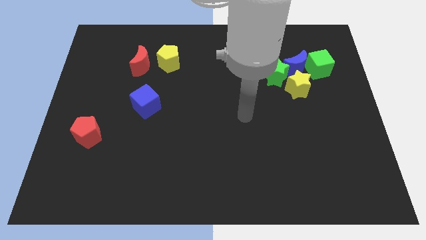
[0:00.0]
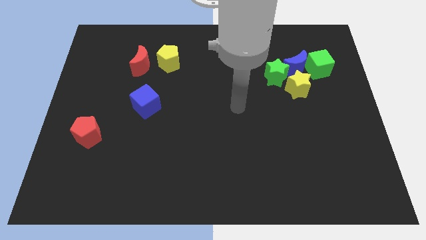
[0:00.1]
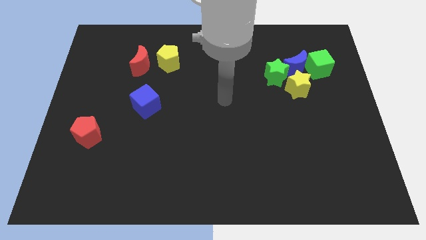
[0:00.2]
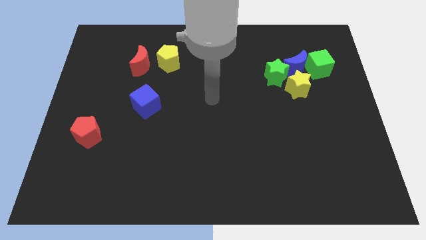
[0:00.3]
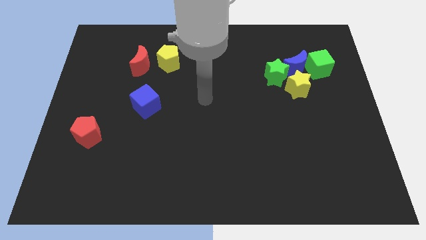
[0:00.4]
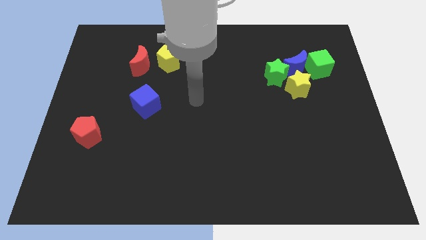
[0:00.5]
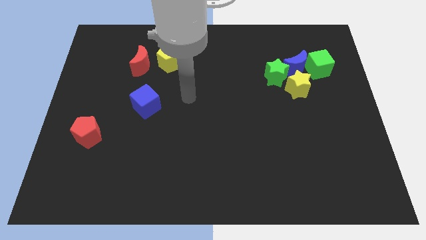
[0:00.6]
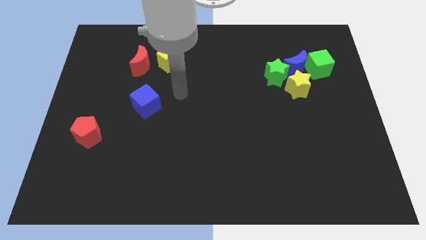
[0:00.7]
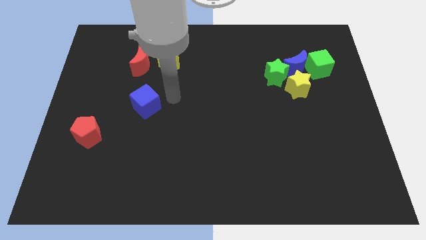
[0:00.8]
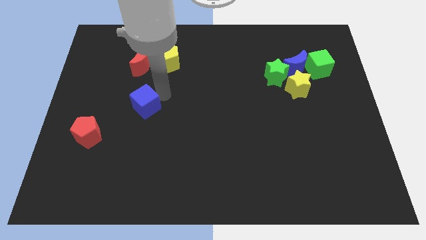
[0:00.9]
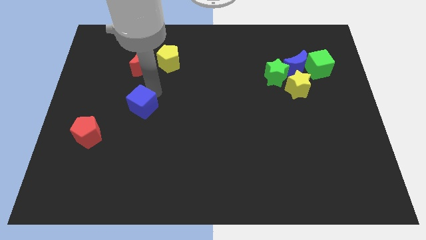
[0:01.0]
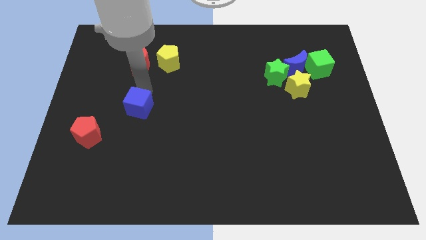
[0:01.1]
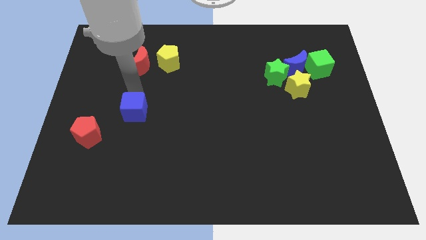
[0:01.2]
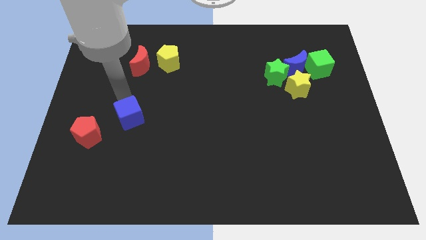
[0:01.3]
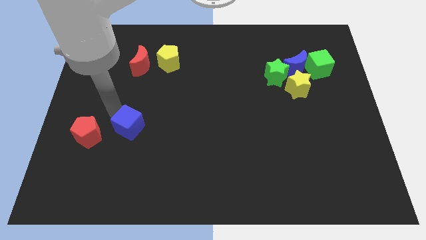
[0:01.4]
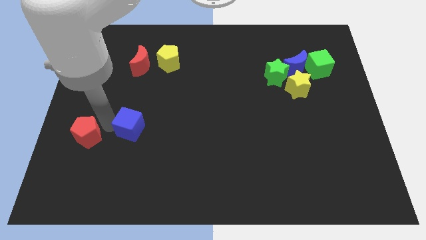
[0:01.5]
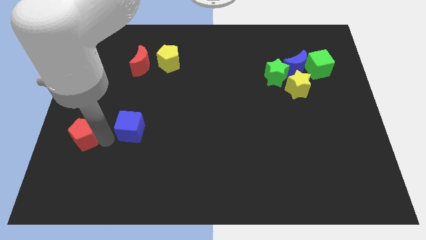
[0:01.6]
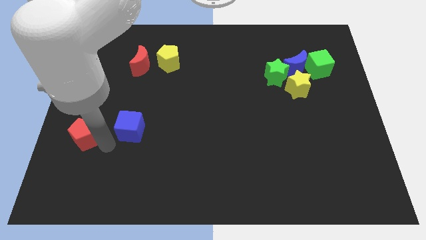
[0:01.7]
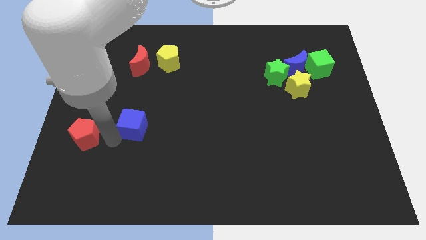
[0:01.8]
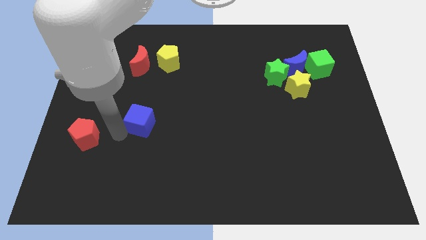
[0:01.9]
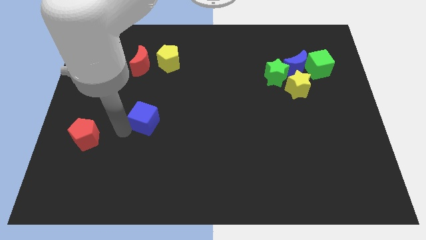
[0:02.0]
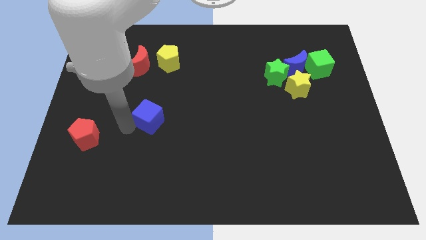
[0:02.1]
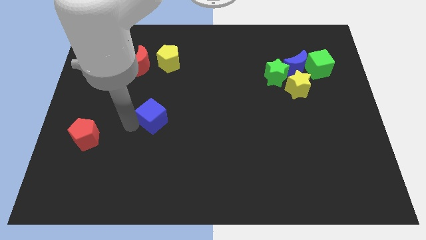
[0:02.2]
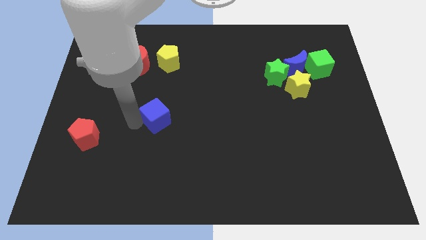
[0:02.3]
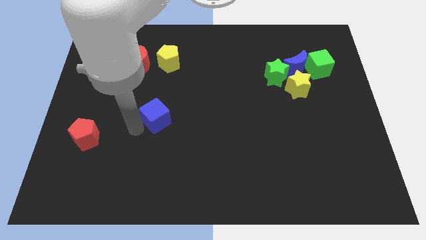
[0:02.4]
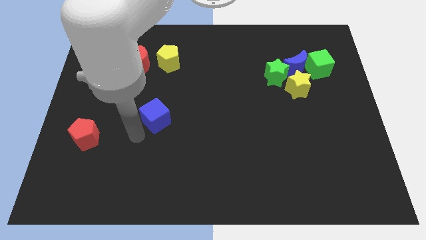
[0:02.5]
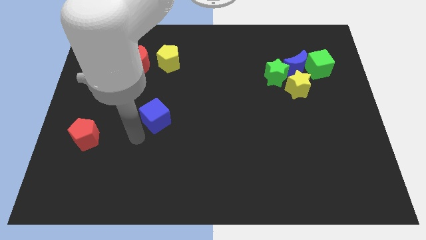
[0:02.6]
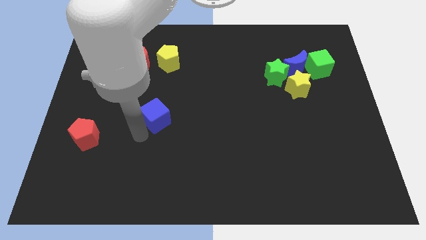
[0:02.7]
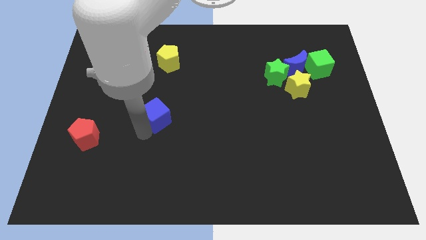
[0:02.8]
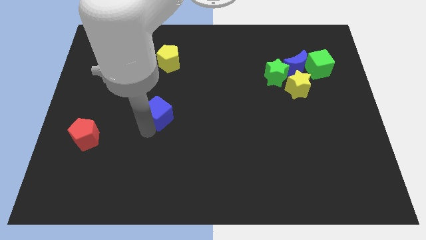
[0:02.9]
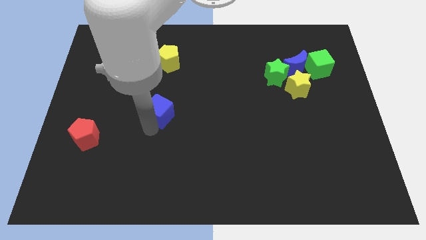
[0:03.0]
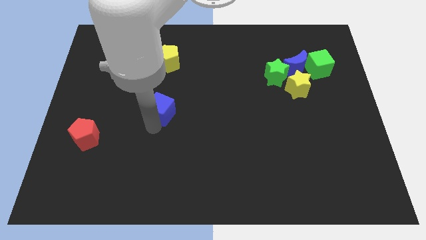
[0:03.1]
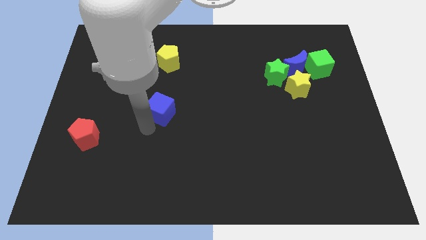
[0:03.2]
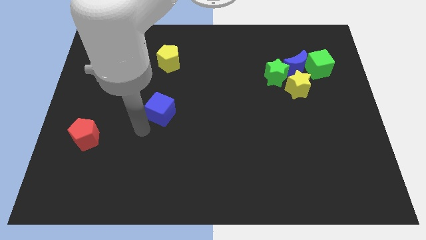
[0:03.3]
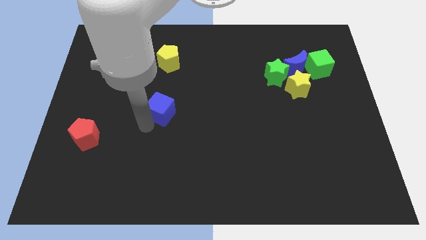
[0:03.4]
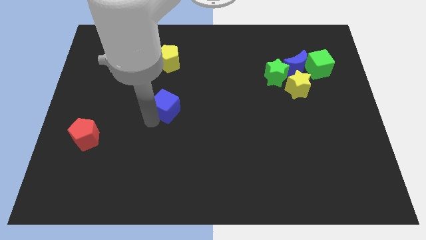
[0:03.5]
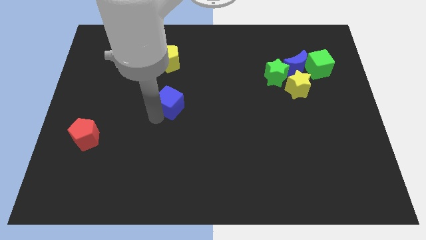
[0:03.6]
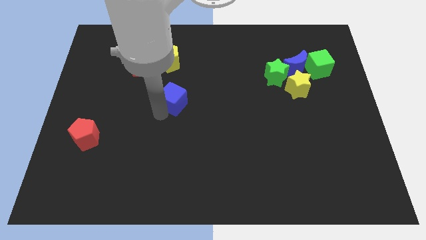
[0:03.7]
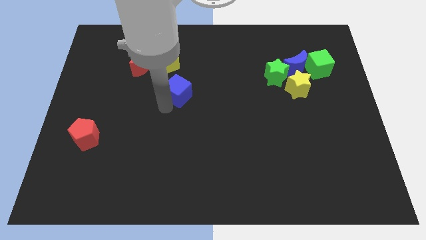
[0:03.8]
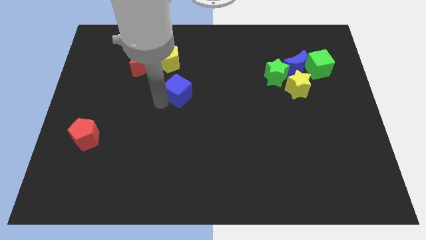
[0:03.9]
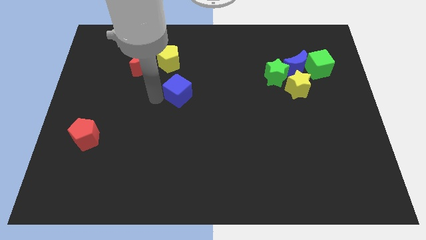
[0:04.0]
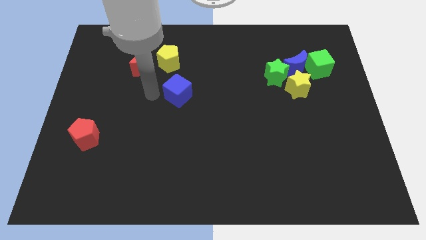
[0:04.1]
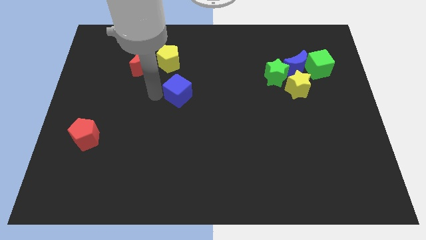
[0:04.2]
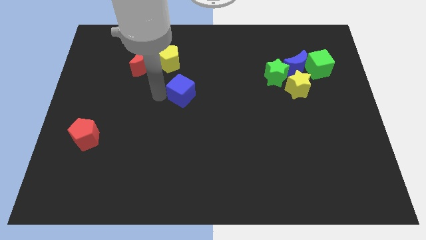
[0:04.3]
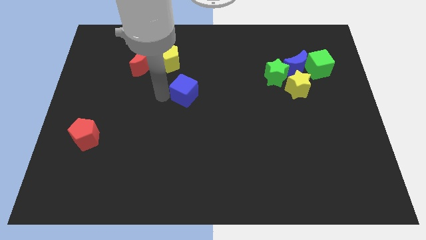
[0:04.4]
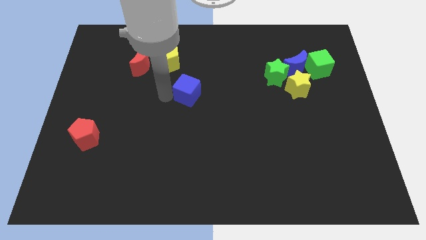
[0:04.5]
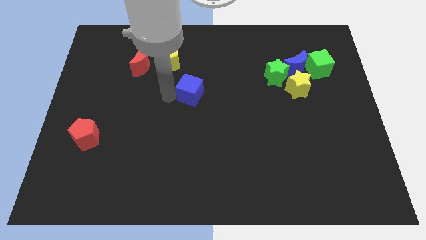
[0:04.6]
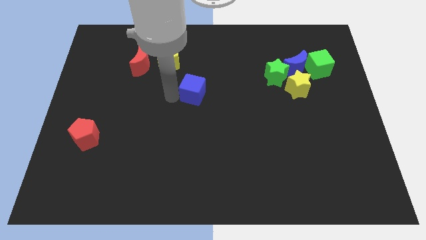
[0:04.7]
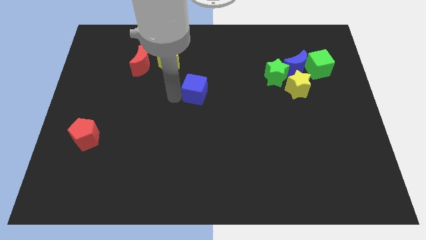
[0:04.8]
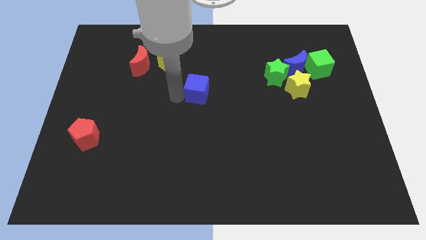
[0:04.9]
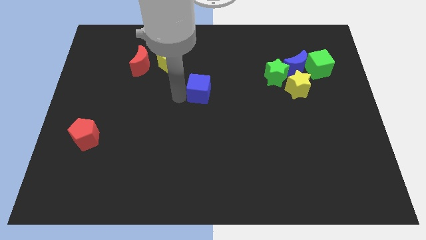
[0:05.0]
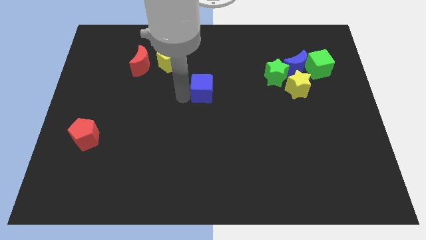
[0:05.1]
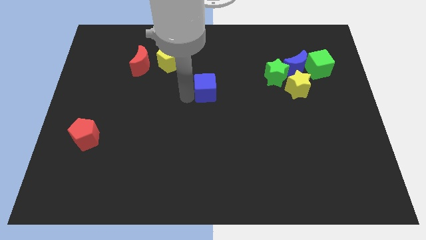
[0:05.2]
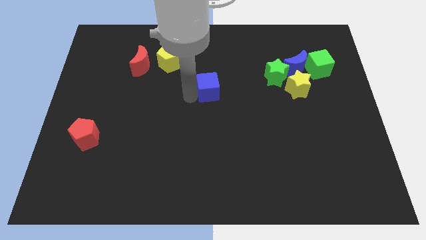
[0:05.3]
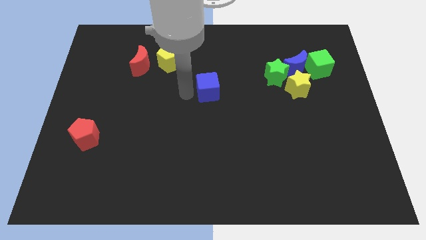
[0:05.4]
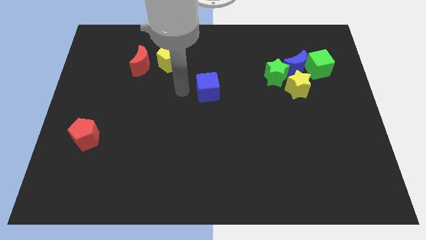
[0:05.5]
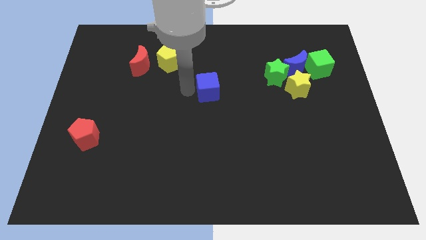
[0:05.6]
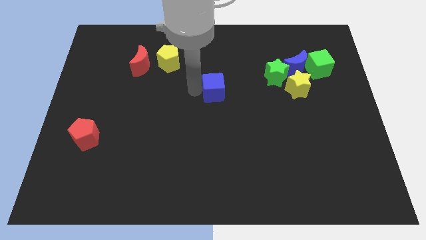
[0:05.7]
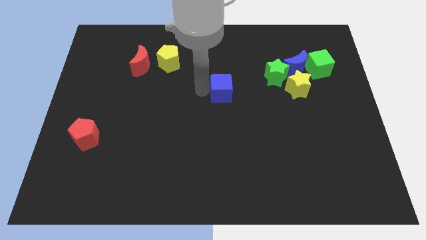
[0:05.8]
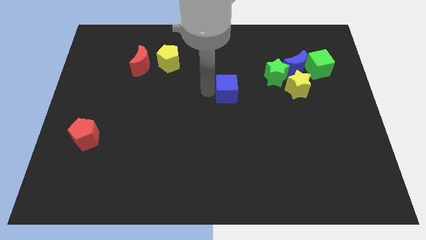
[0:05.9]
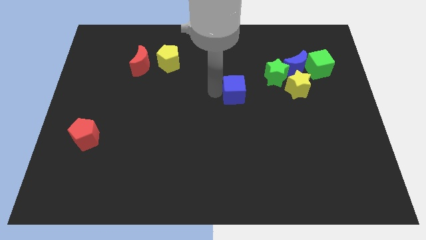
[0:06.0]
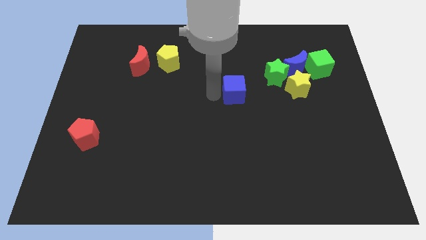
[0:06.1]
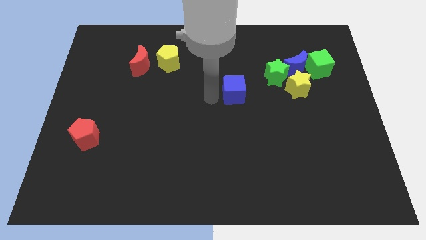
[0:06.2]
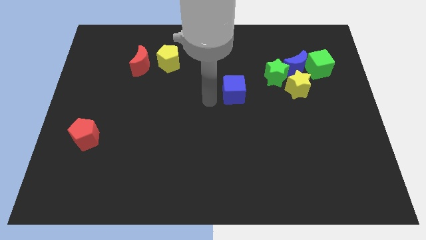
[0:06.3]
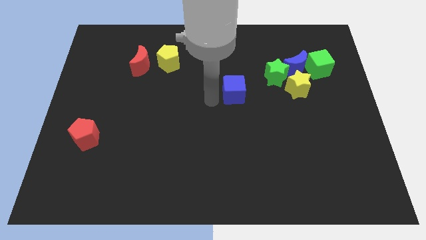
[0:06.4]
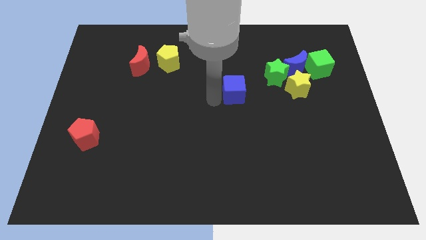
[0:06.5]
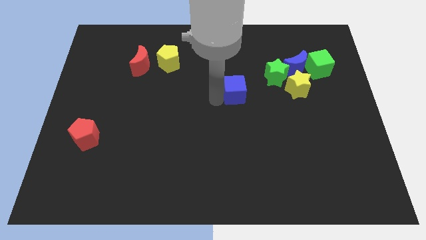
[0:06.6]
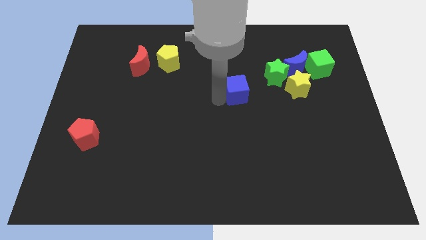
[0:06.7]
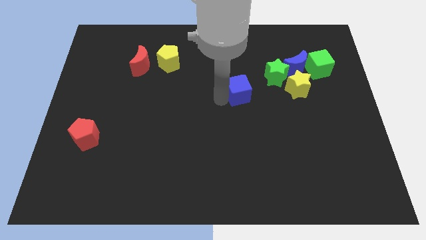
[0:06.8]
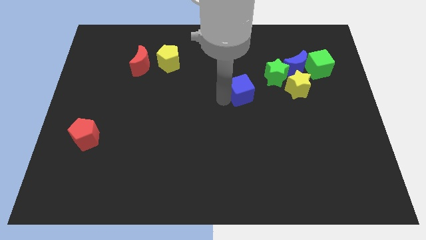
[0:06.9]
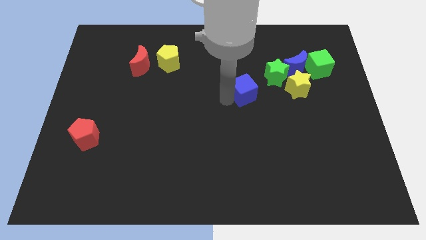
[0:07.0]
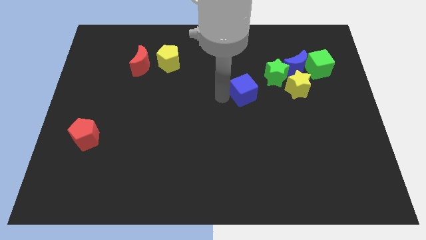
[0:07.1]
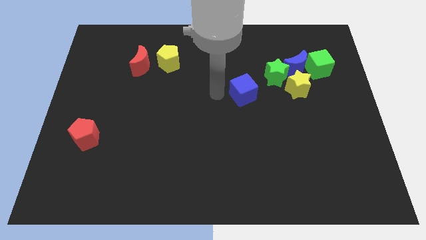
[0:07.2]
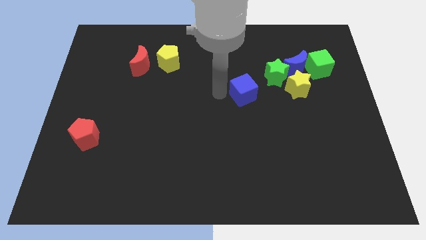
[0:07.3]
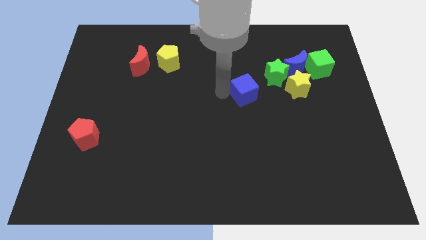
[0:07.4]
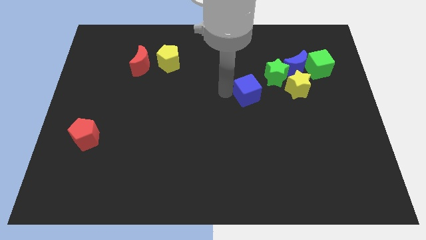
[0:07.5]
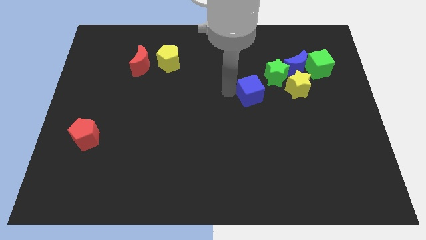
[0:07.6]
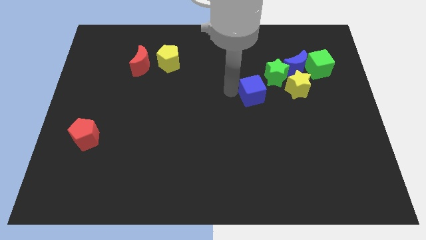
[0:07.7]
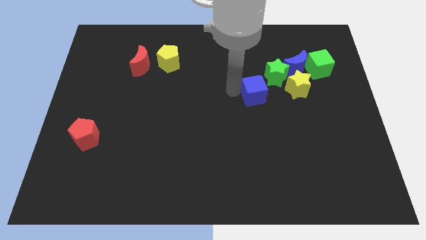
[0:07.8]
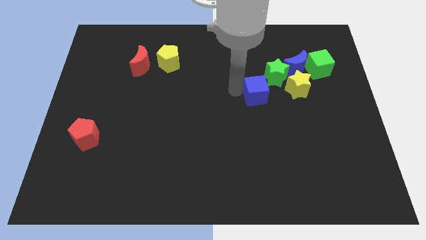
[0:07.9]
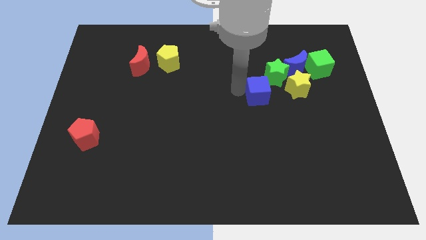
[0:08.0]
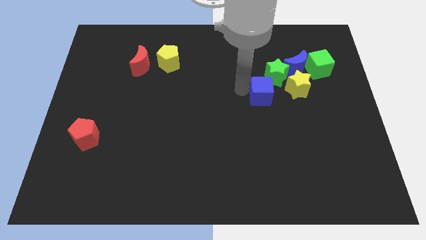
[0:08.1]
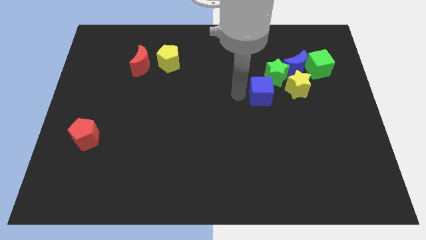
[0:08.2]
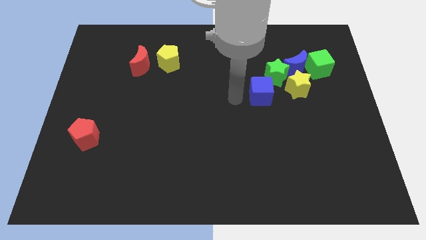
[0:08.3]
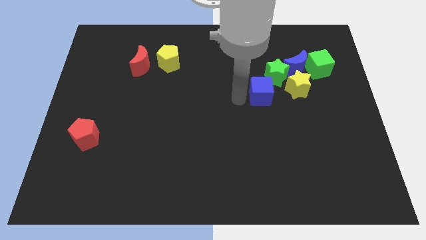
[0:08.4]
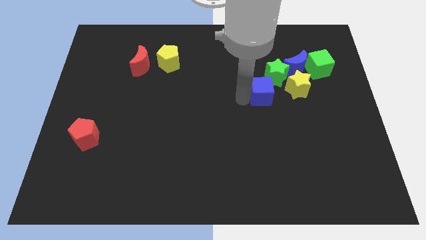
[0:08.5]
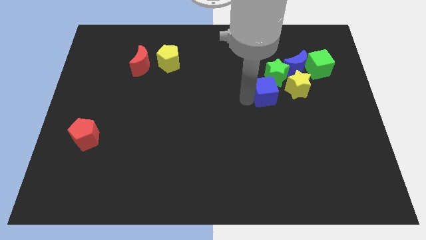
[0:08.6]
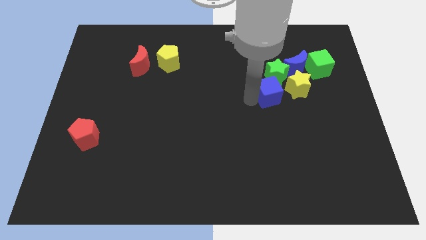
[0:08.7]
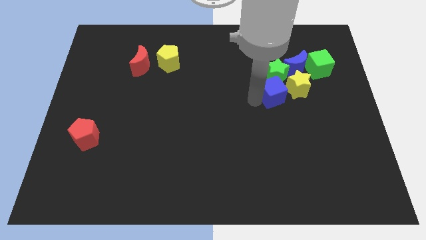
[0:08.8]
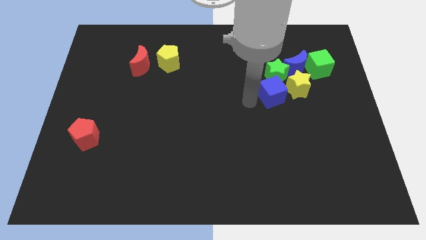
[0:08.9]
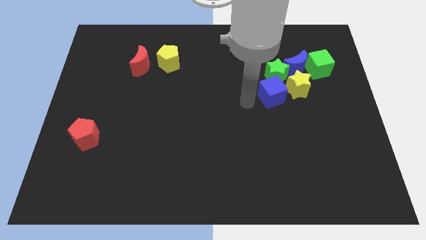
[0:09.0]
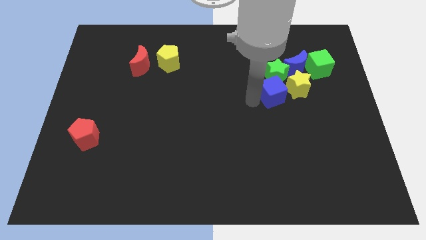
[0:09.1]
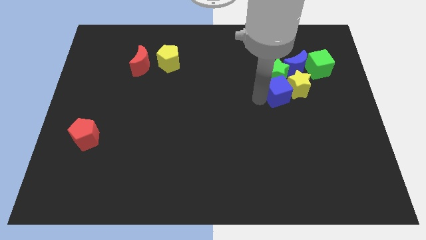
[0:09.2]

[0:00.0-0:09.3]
put the blue cube next to the yellow star
